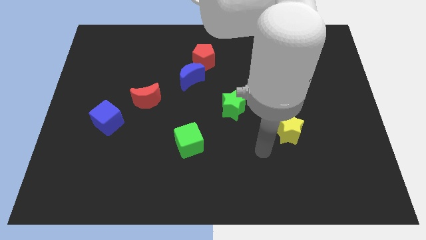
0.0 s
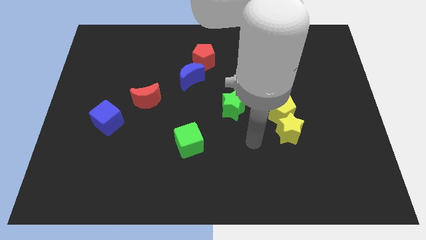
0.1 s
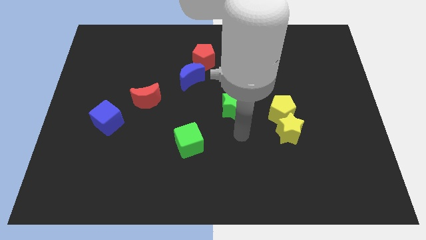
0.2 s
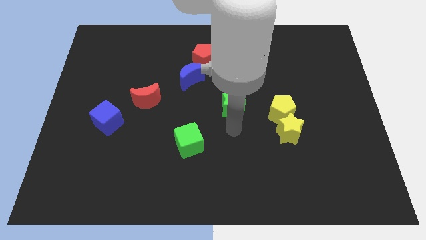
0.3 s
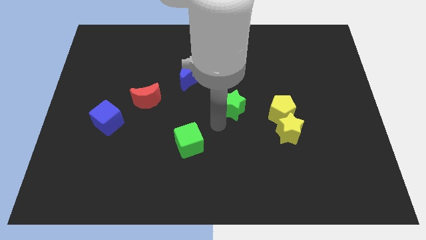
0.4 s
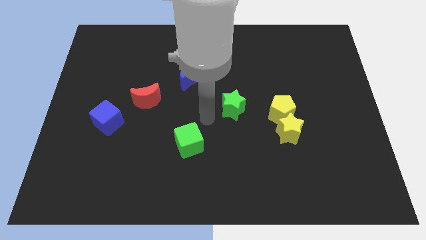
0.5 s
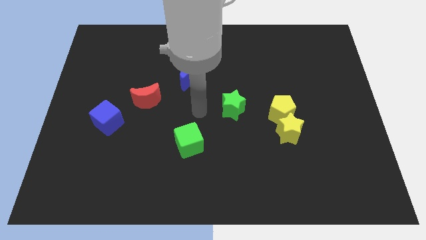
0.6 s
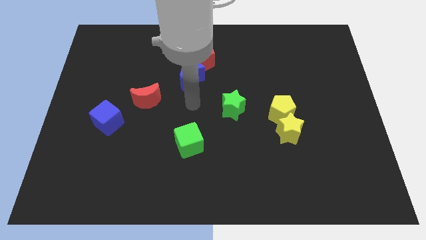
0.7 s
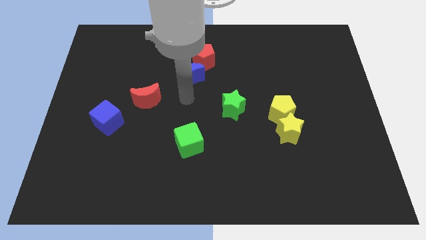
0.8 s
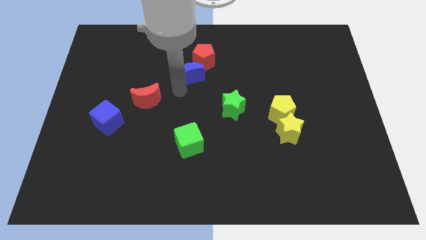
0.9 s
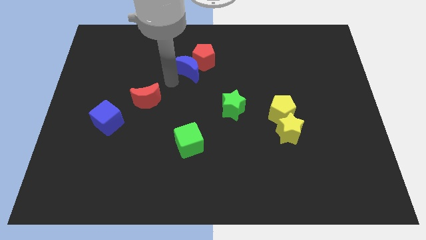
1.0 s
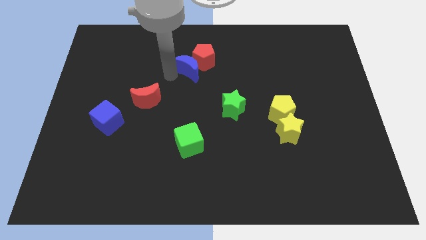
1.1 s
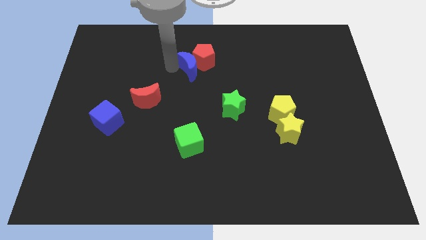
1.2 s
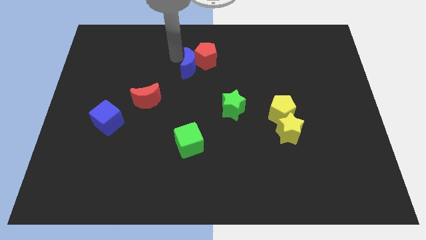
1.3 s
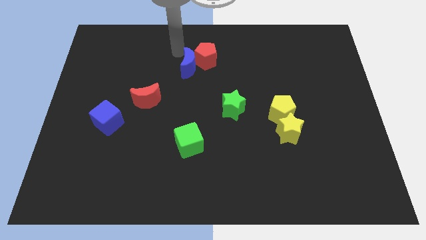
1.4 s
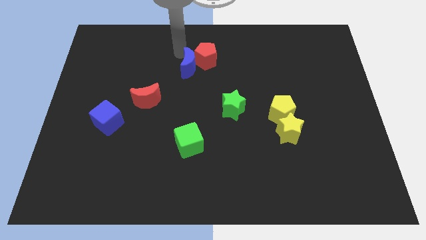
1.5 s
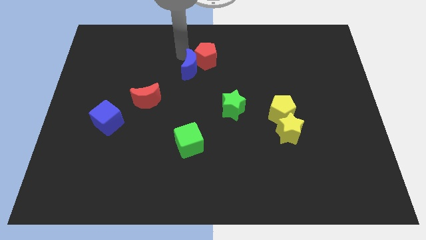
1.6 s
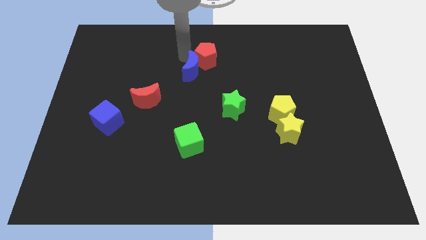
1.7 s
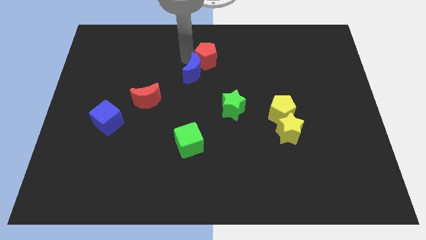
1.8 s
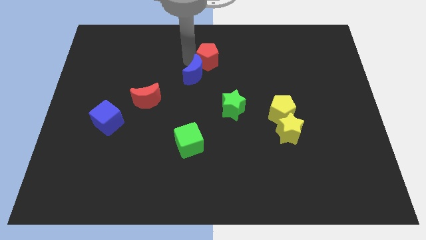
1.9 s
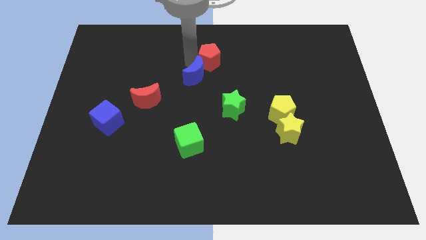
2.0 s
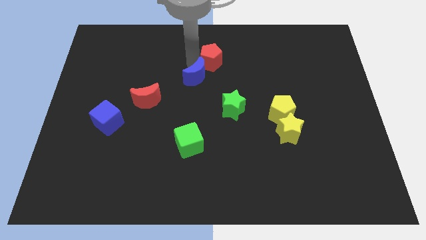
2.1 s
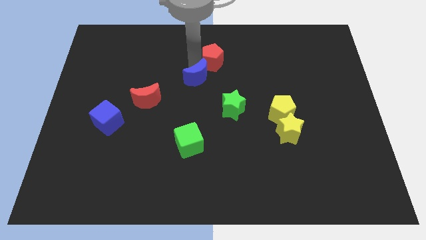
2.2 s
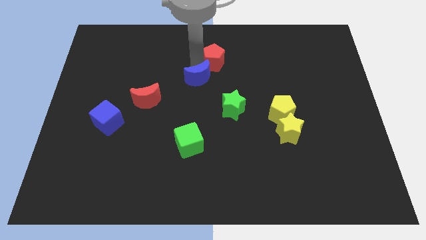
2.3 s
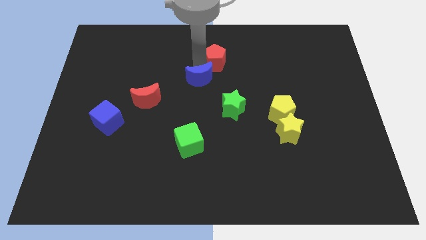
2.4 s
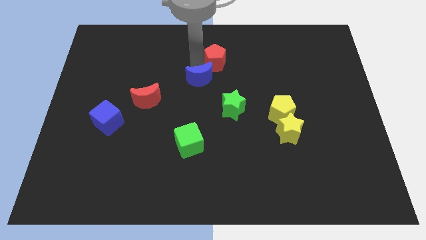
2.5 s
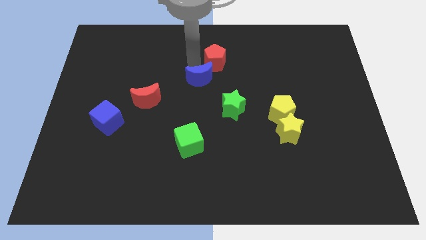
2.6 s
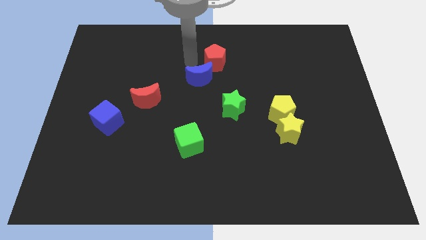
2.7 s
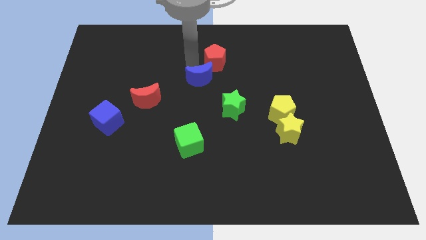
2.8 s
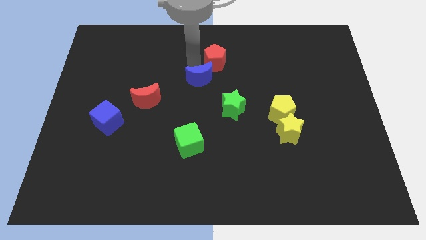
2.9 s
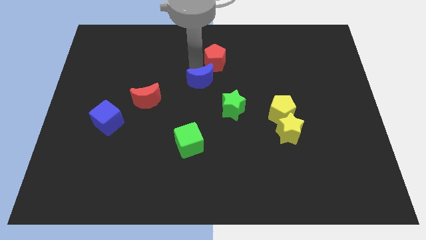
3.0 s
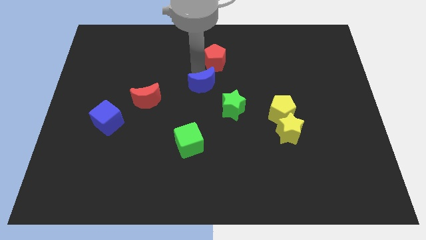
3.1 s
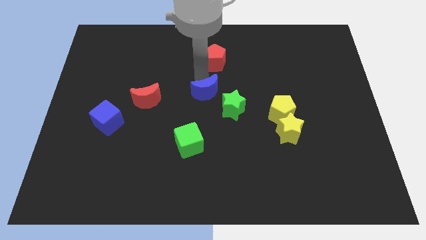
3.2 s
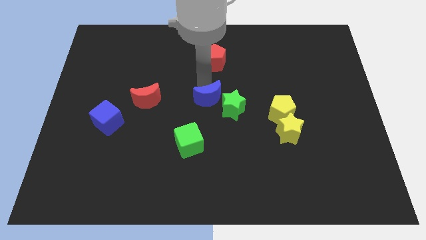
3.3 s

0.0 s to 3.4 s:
push the blue moon downwards and right a little

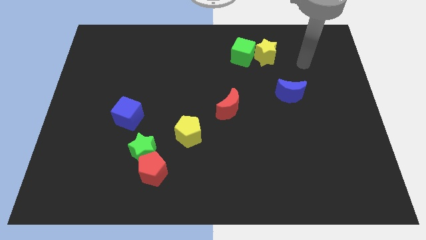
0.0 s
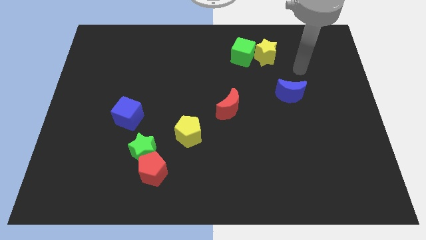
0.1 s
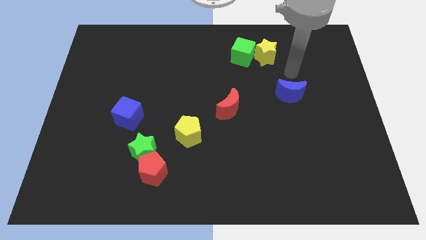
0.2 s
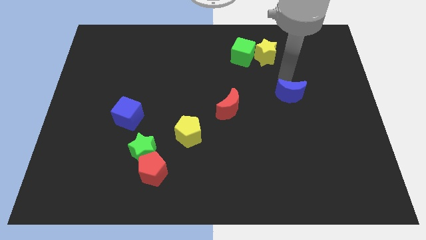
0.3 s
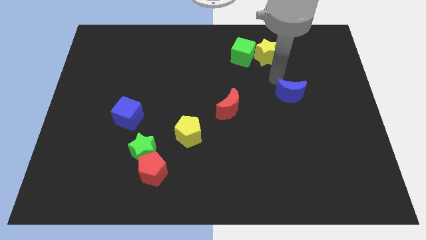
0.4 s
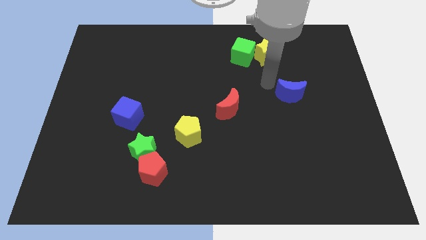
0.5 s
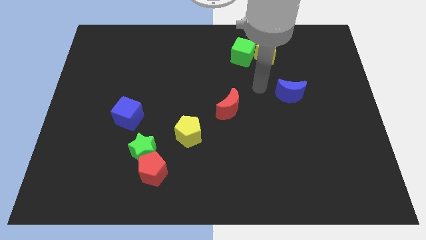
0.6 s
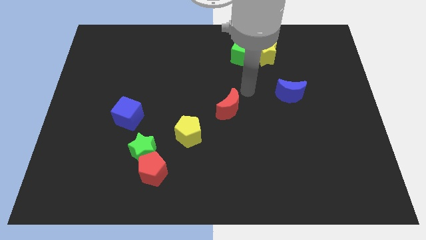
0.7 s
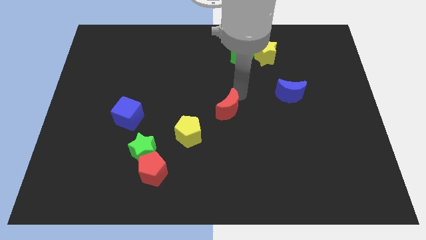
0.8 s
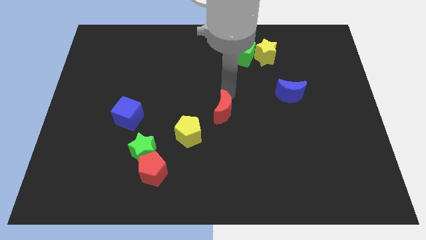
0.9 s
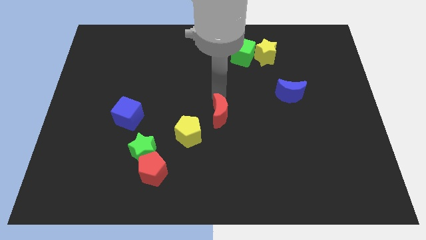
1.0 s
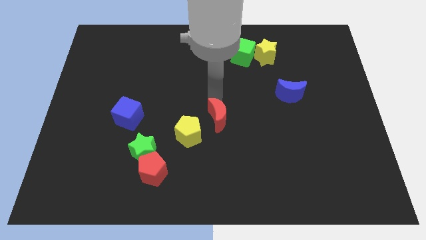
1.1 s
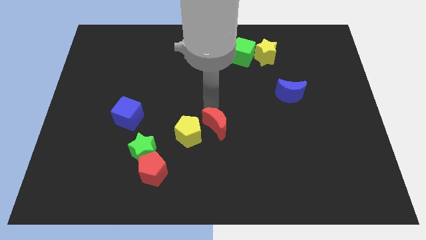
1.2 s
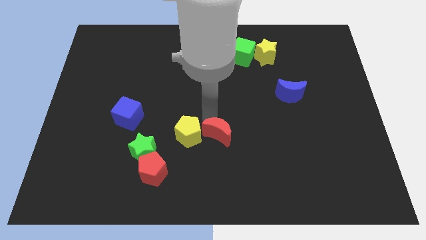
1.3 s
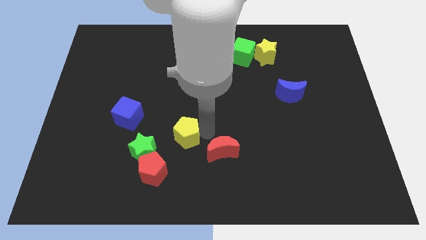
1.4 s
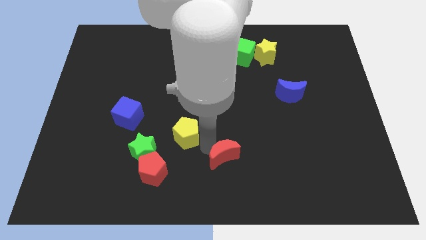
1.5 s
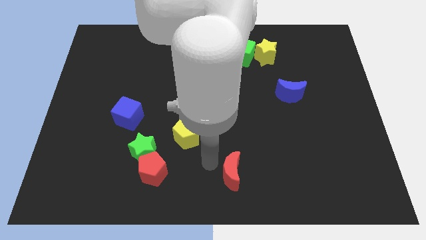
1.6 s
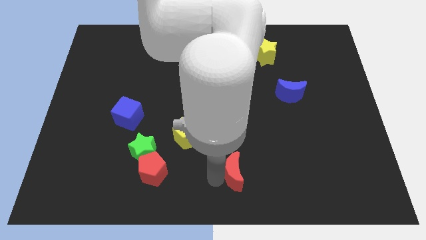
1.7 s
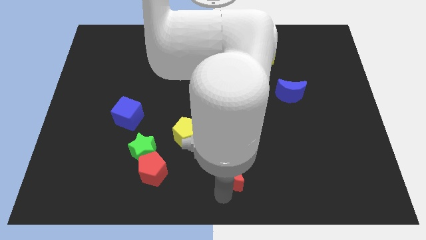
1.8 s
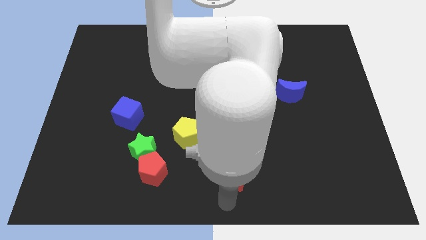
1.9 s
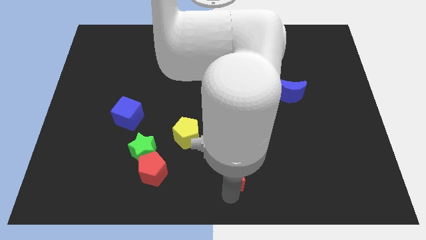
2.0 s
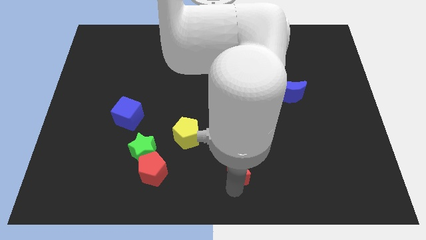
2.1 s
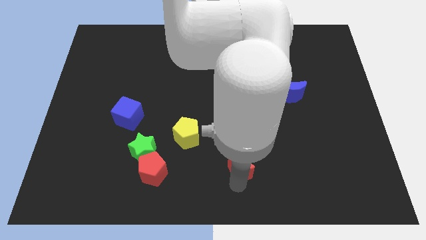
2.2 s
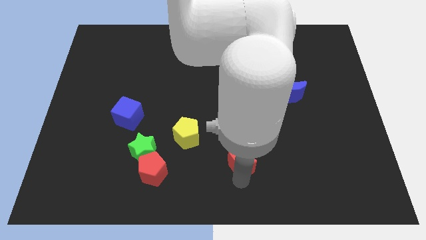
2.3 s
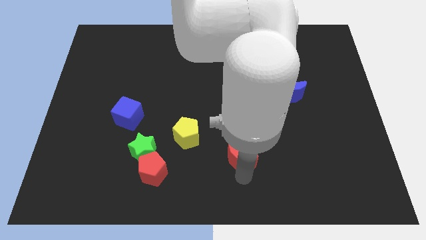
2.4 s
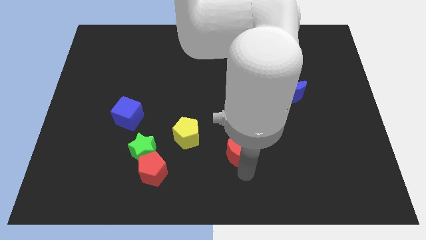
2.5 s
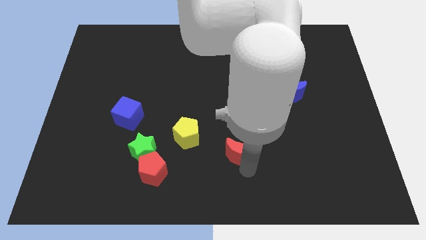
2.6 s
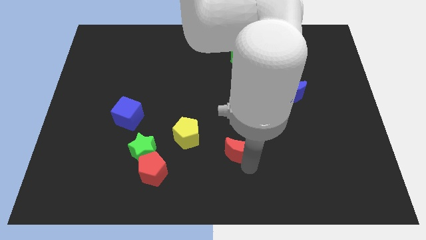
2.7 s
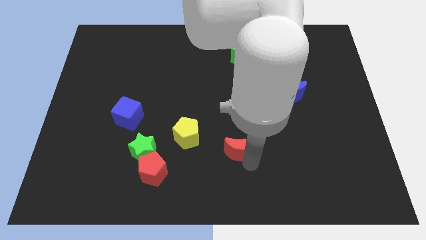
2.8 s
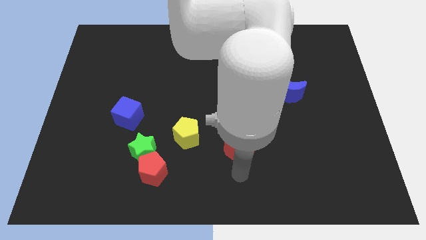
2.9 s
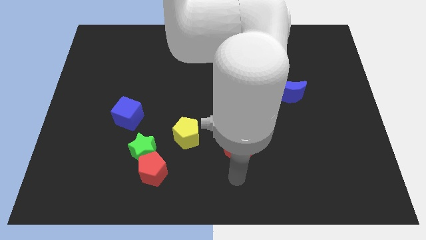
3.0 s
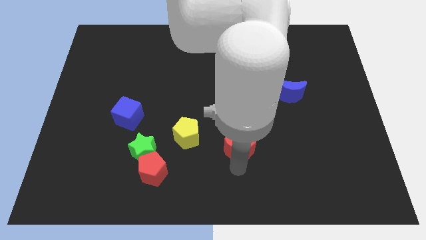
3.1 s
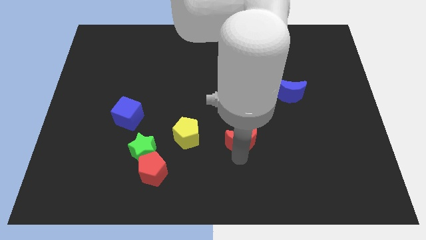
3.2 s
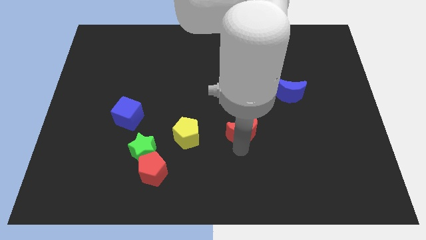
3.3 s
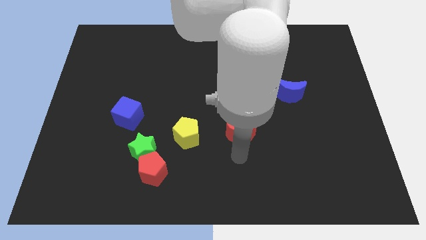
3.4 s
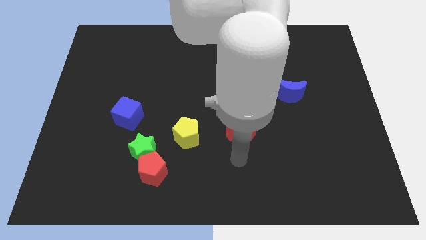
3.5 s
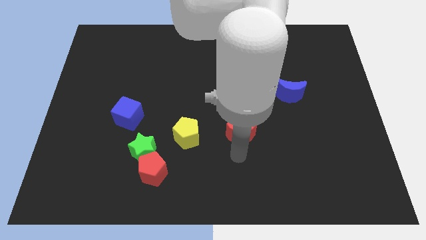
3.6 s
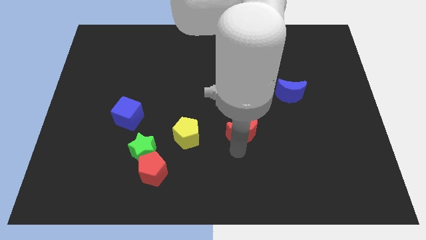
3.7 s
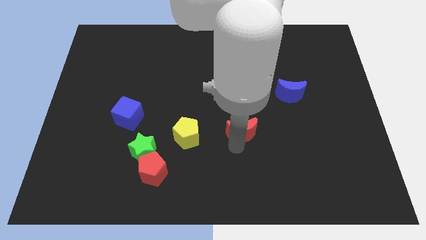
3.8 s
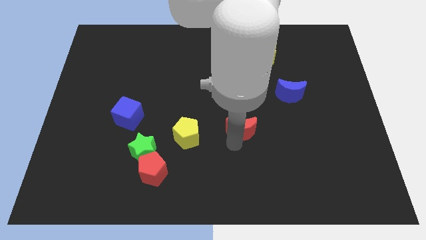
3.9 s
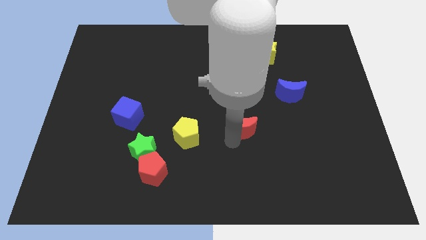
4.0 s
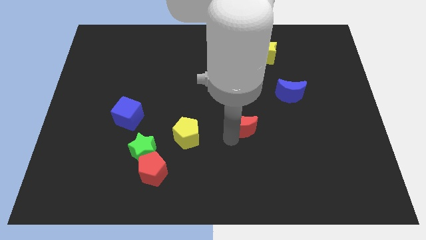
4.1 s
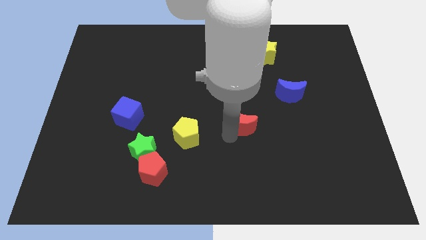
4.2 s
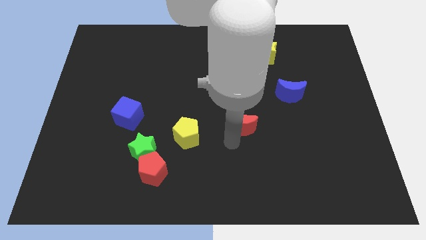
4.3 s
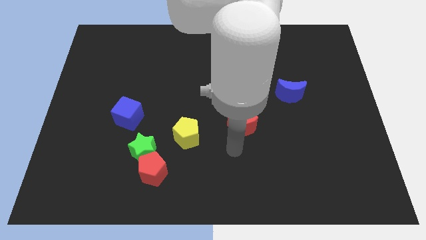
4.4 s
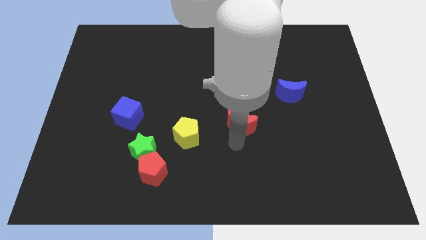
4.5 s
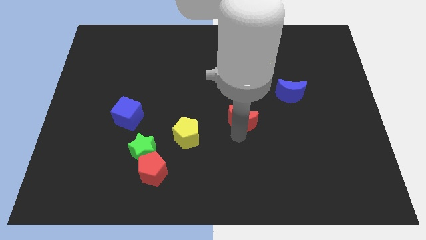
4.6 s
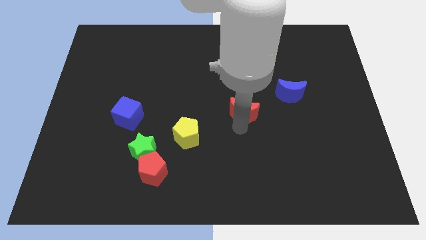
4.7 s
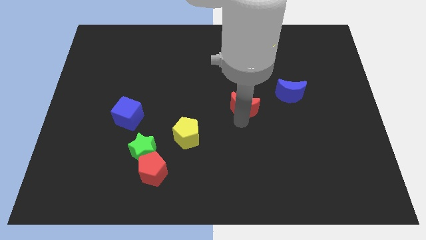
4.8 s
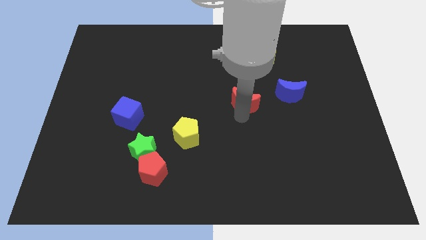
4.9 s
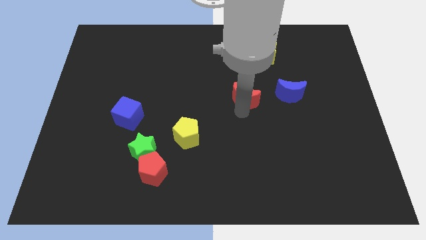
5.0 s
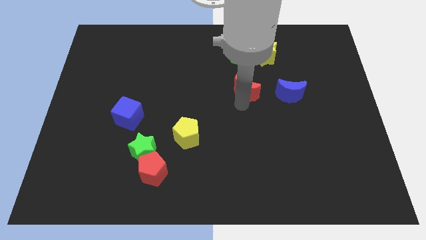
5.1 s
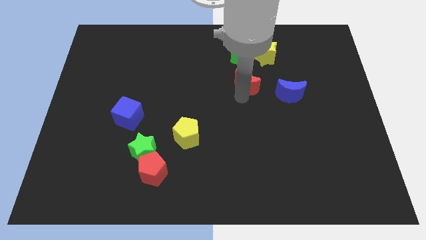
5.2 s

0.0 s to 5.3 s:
slide the red moon a bit diagonally upwards and to the right
